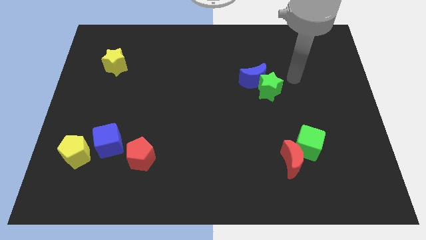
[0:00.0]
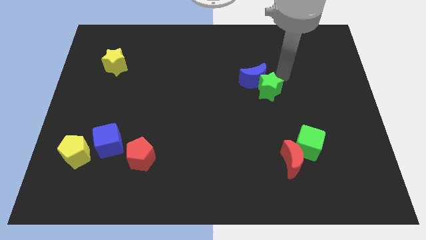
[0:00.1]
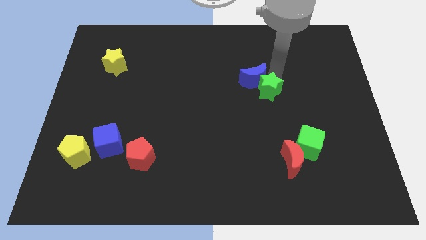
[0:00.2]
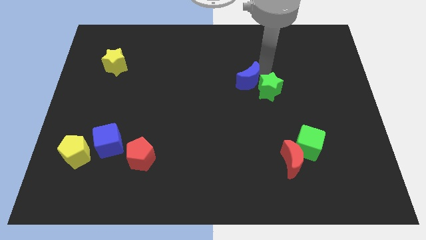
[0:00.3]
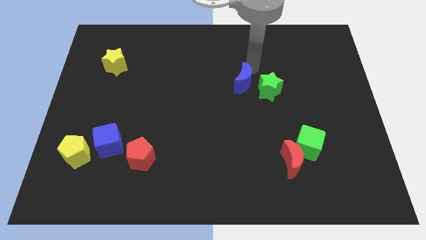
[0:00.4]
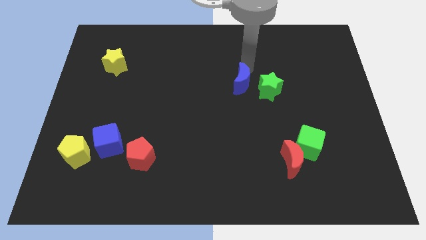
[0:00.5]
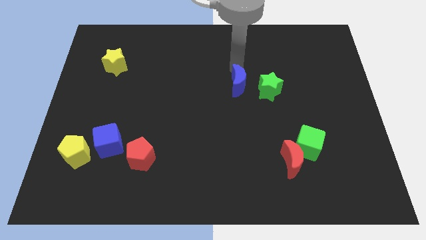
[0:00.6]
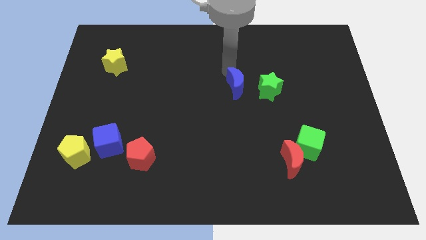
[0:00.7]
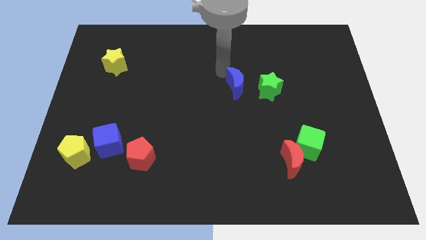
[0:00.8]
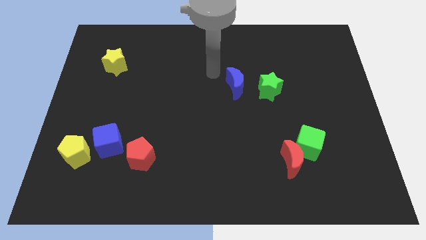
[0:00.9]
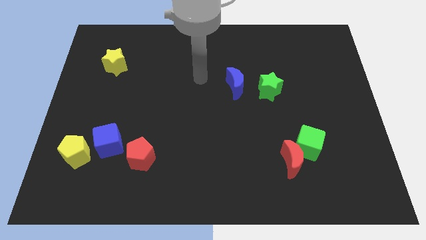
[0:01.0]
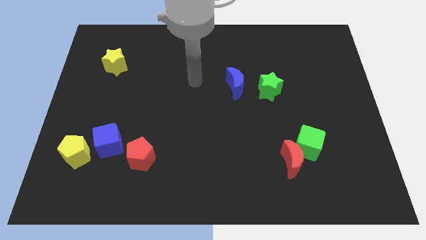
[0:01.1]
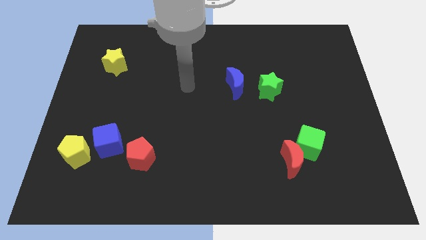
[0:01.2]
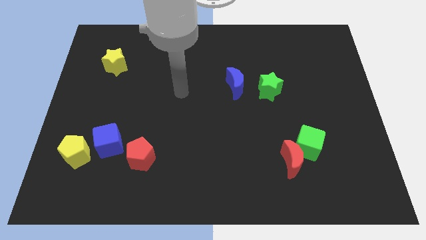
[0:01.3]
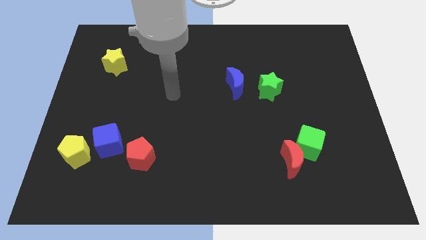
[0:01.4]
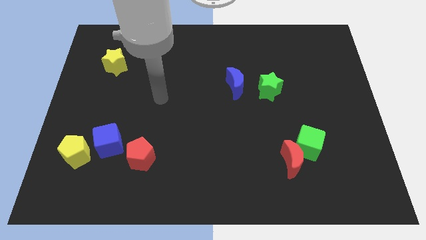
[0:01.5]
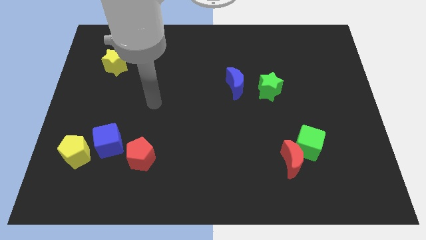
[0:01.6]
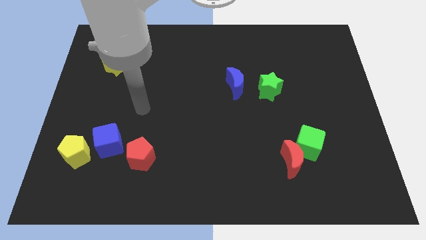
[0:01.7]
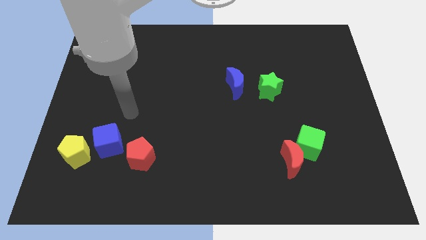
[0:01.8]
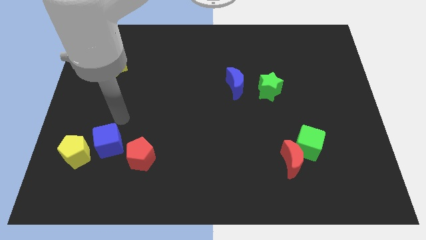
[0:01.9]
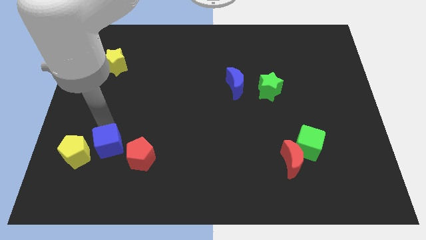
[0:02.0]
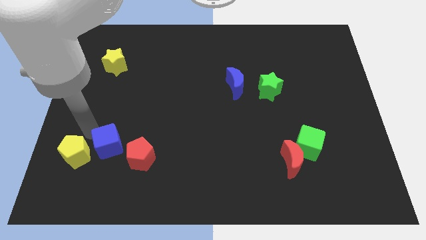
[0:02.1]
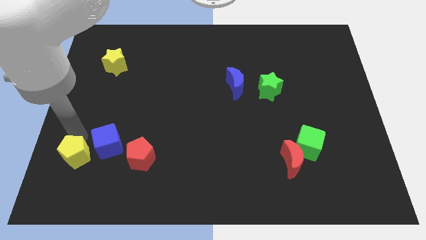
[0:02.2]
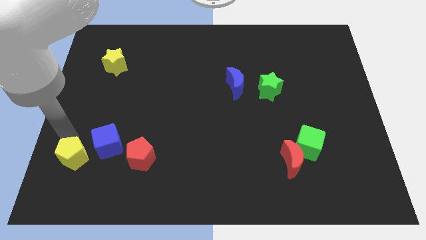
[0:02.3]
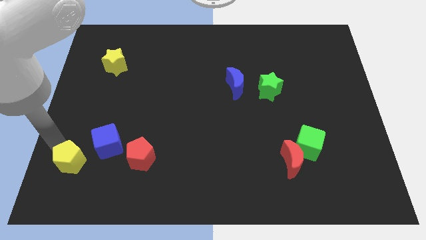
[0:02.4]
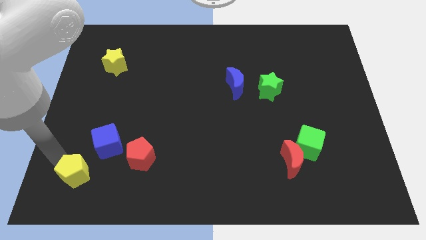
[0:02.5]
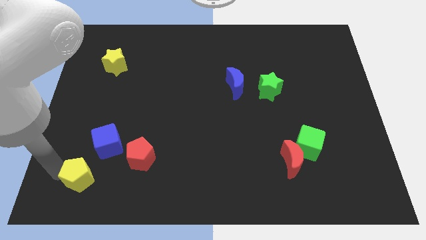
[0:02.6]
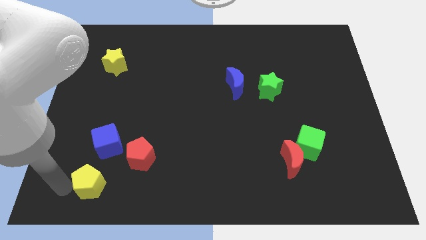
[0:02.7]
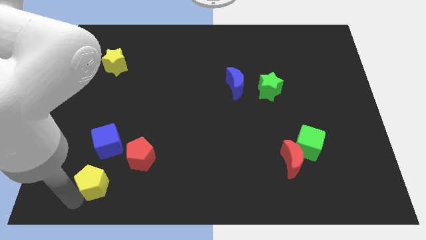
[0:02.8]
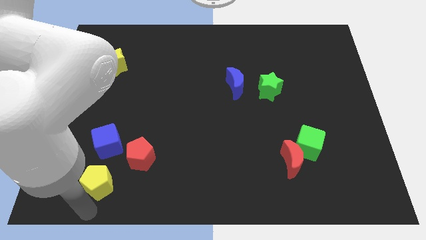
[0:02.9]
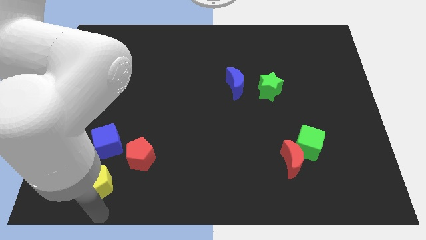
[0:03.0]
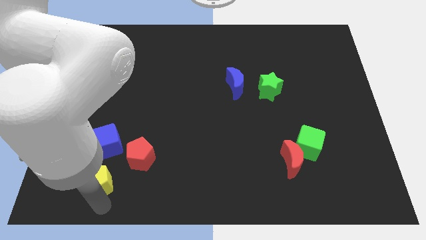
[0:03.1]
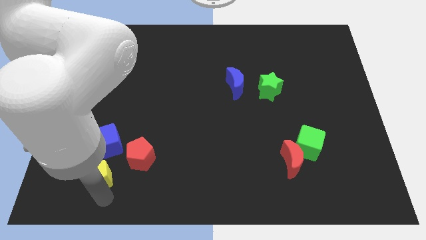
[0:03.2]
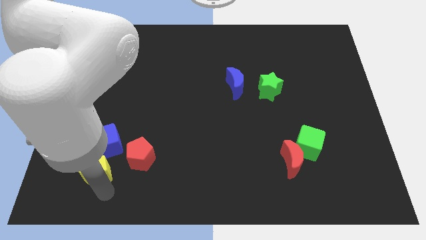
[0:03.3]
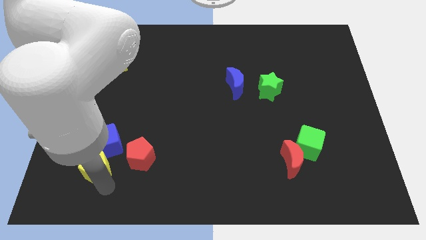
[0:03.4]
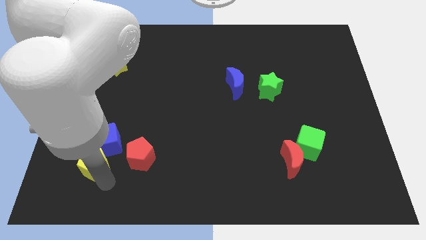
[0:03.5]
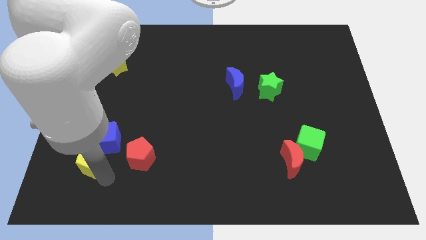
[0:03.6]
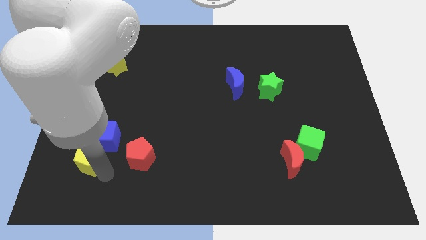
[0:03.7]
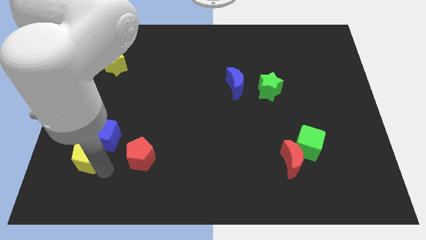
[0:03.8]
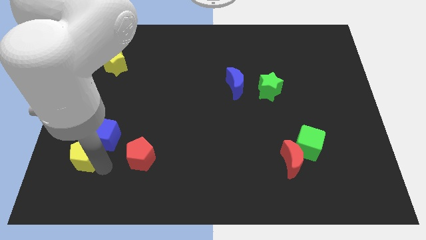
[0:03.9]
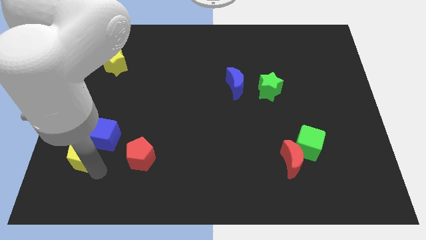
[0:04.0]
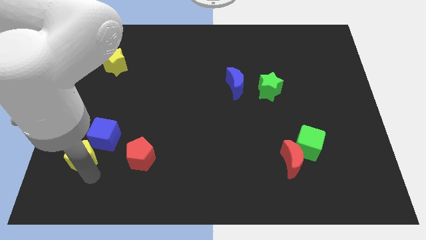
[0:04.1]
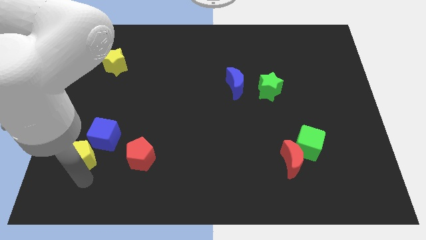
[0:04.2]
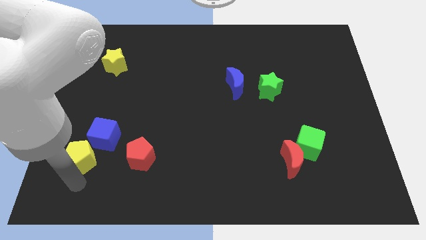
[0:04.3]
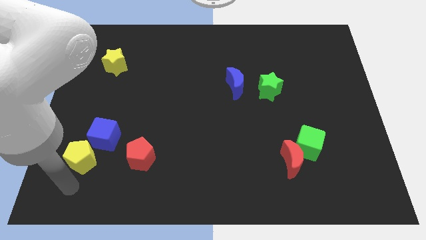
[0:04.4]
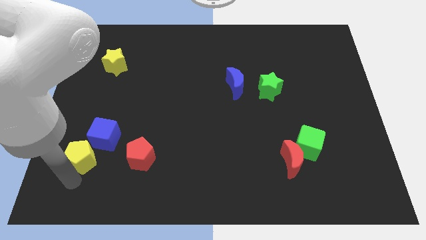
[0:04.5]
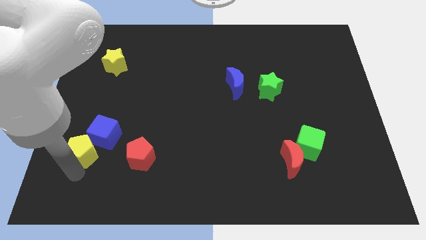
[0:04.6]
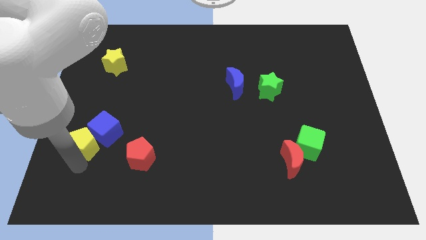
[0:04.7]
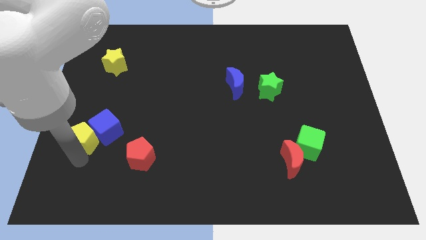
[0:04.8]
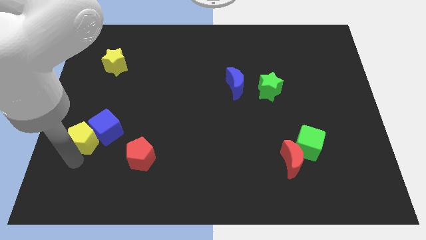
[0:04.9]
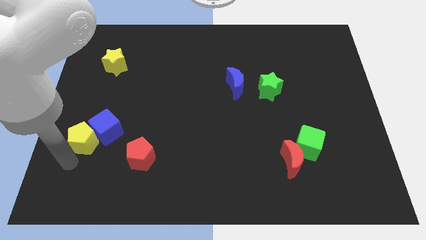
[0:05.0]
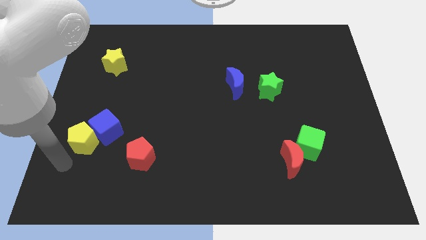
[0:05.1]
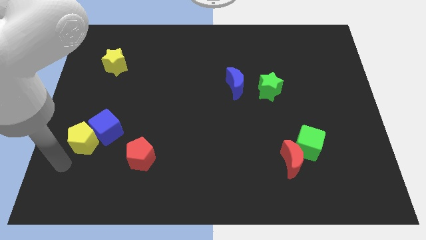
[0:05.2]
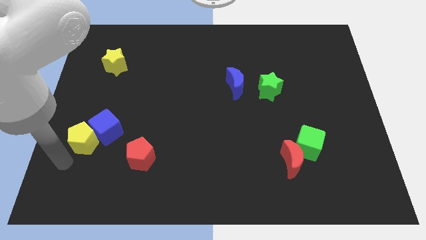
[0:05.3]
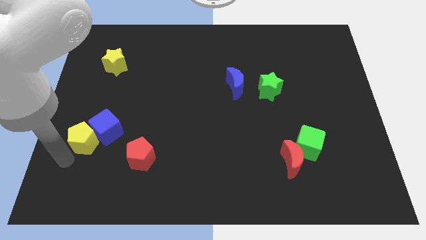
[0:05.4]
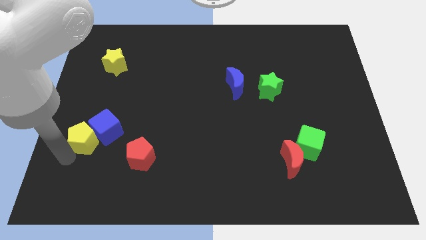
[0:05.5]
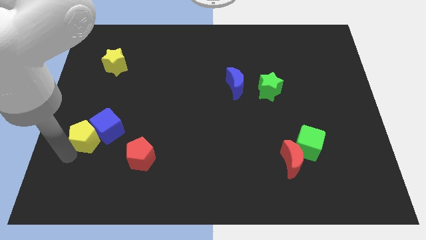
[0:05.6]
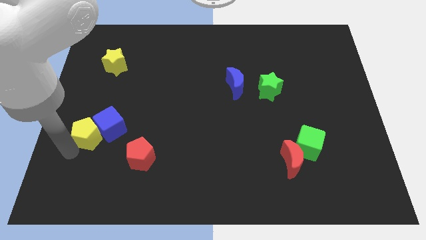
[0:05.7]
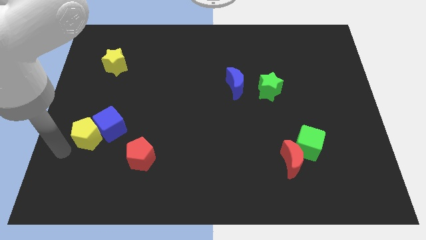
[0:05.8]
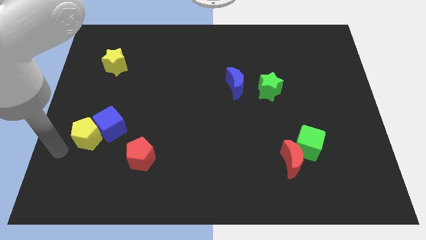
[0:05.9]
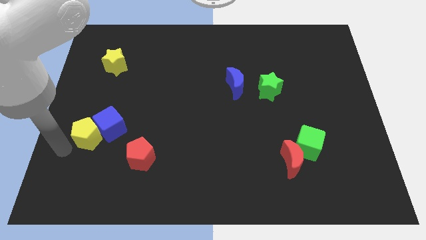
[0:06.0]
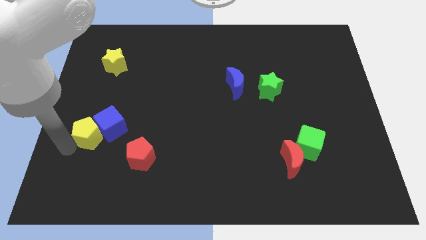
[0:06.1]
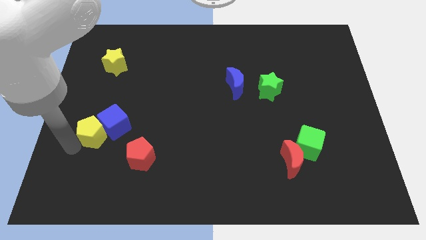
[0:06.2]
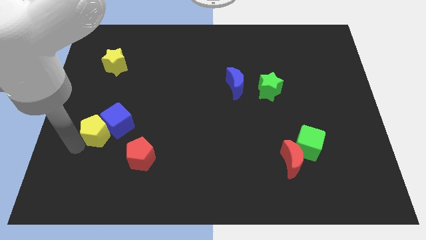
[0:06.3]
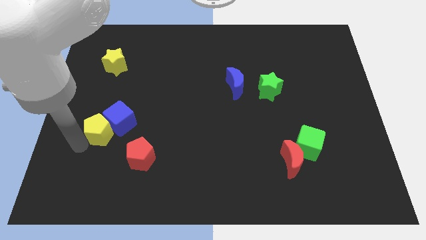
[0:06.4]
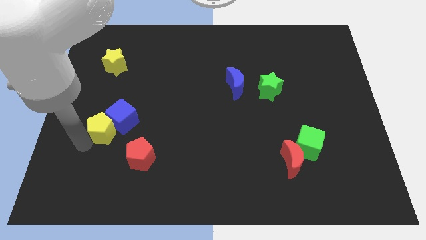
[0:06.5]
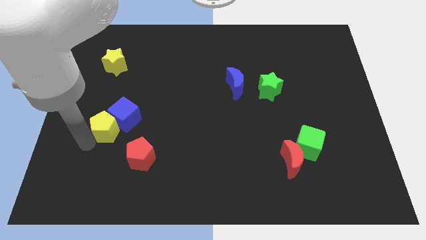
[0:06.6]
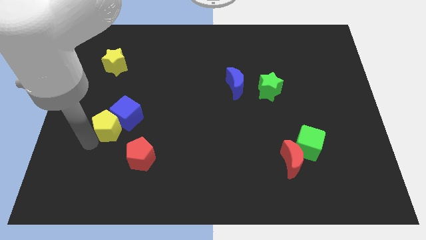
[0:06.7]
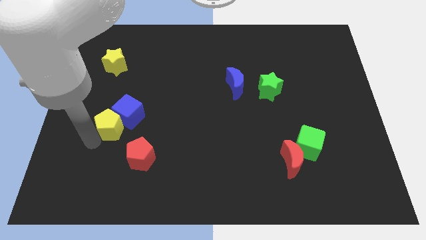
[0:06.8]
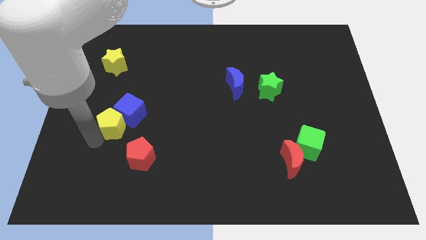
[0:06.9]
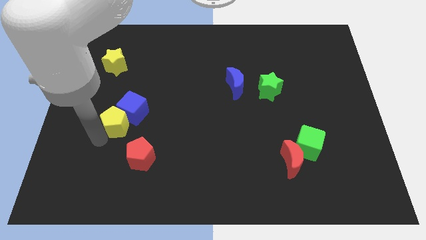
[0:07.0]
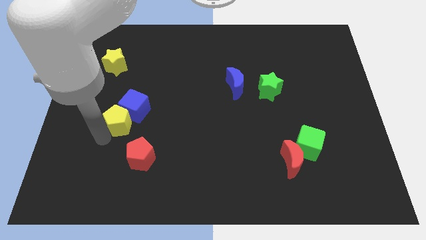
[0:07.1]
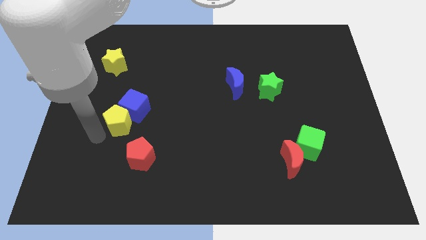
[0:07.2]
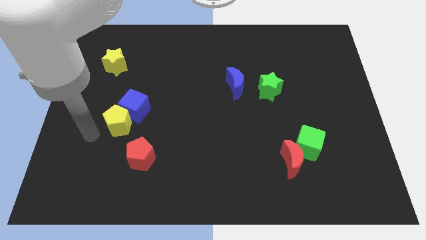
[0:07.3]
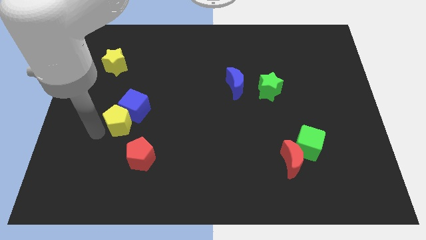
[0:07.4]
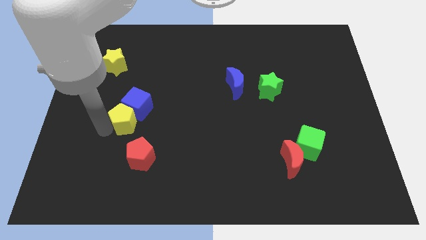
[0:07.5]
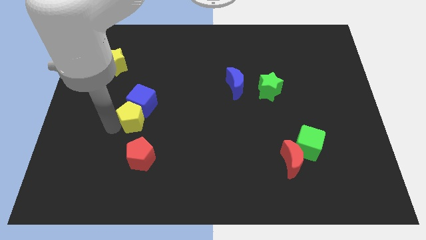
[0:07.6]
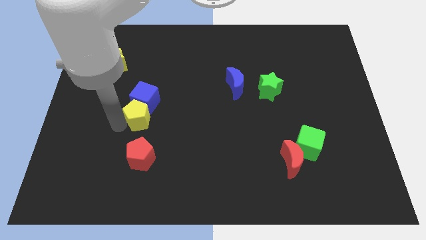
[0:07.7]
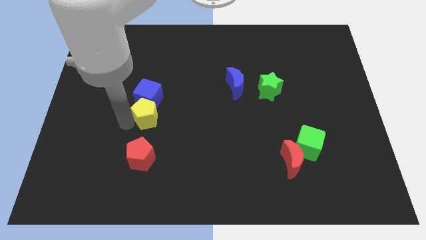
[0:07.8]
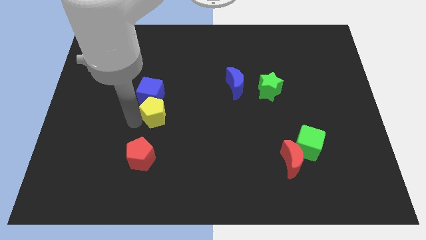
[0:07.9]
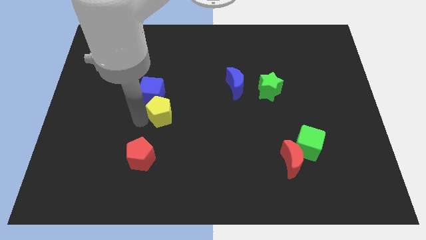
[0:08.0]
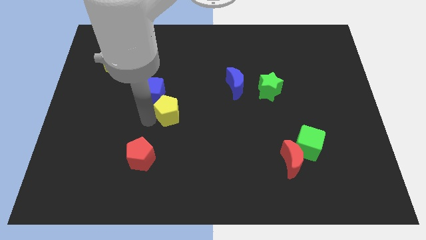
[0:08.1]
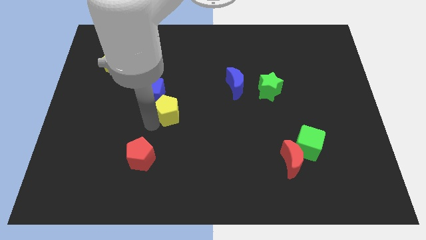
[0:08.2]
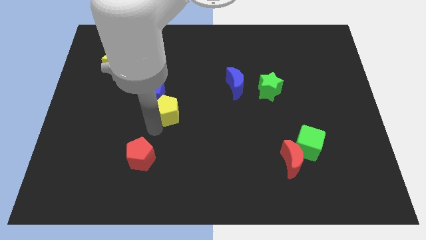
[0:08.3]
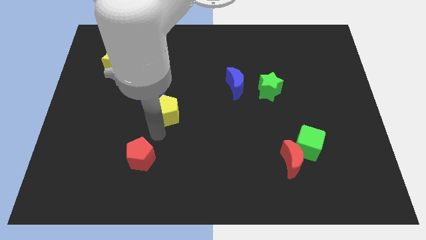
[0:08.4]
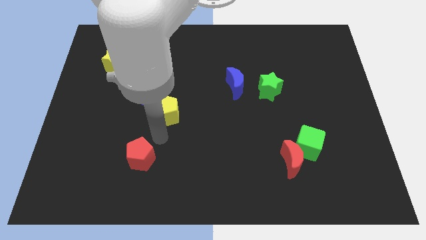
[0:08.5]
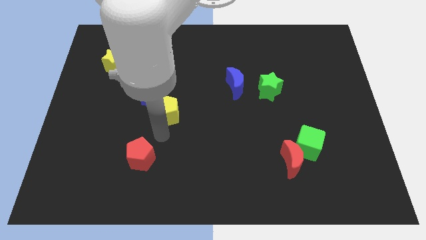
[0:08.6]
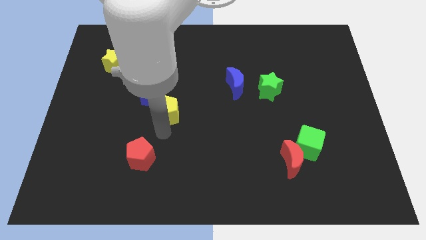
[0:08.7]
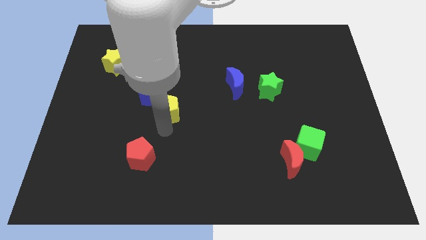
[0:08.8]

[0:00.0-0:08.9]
move the yellow pentagon up and right diagonally
